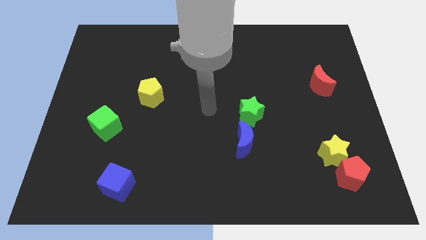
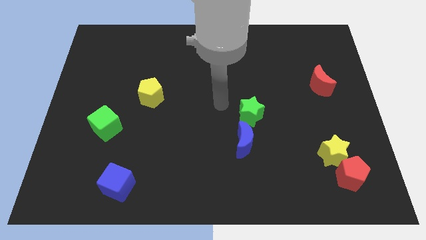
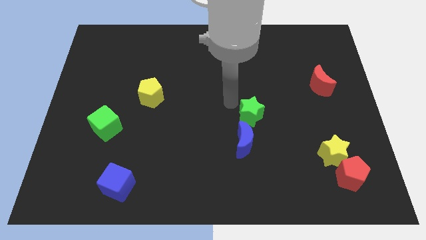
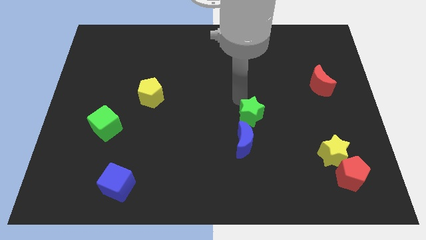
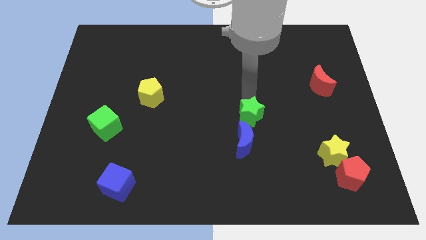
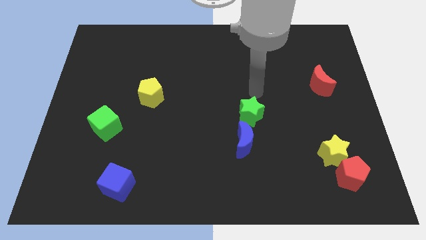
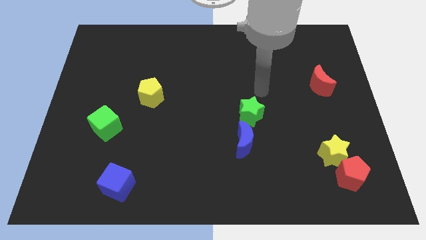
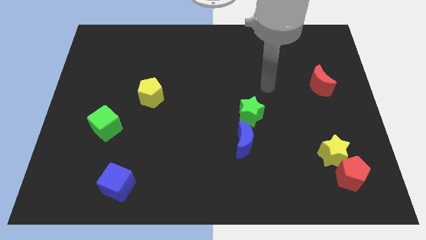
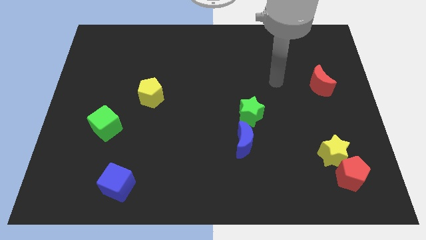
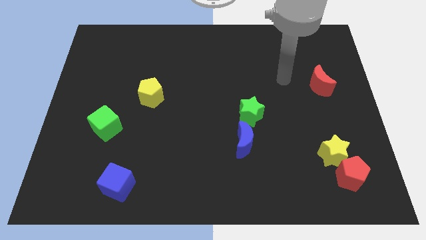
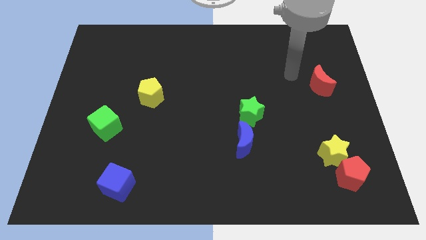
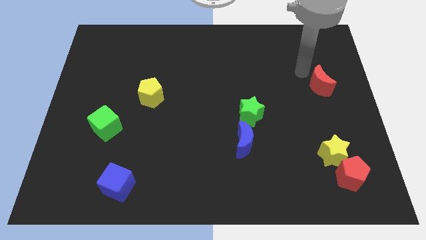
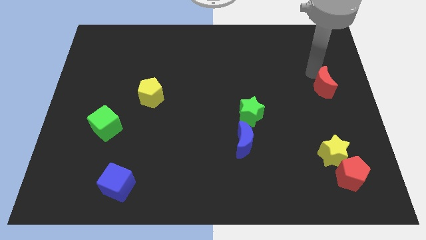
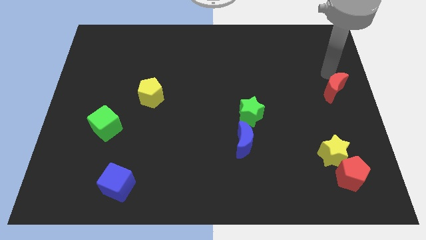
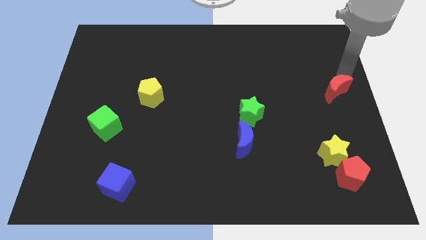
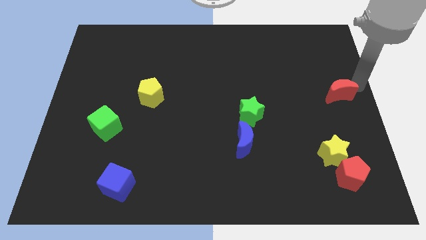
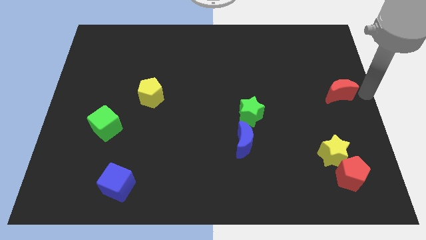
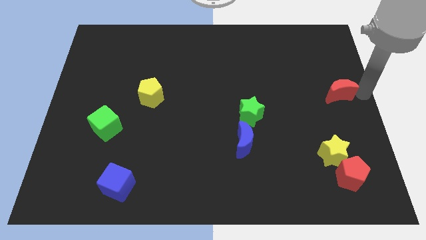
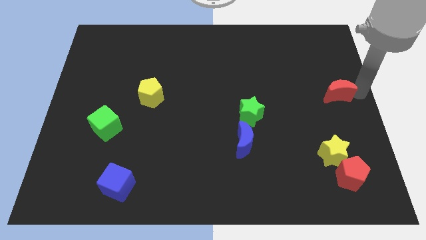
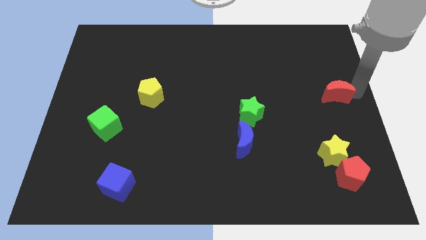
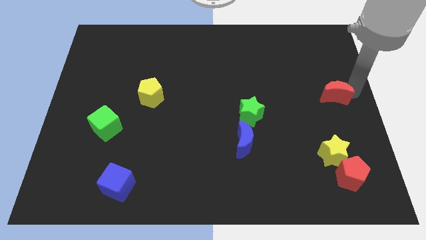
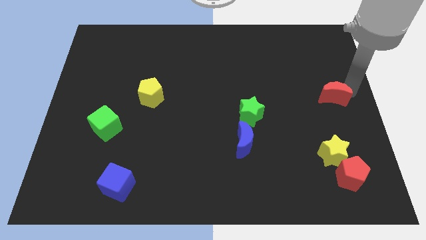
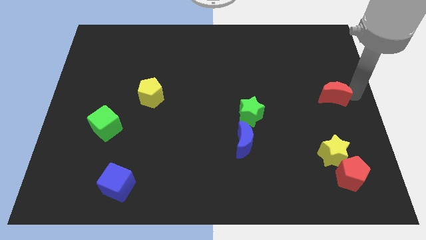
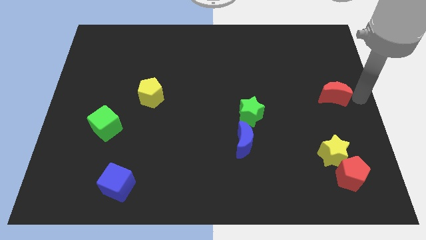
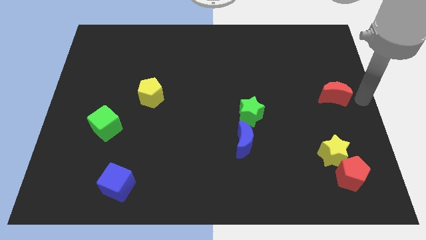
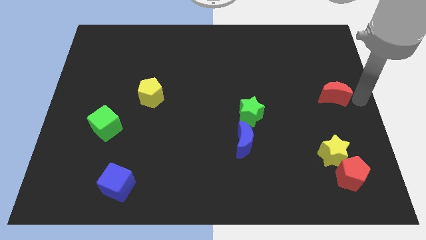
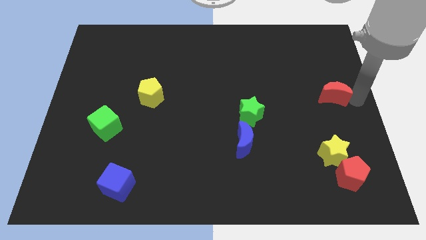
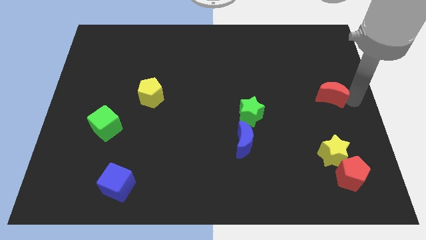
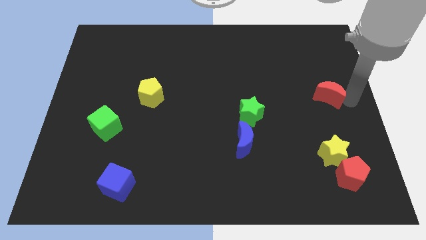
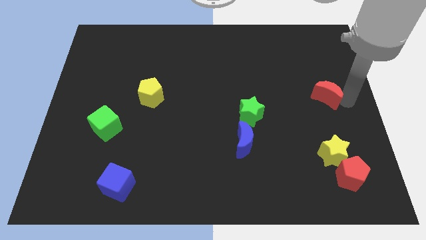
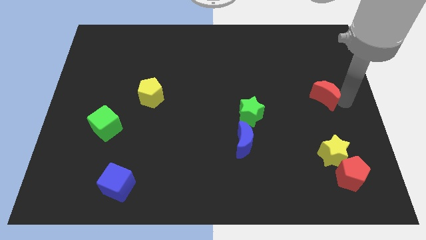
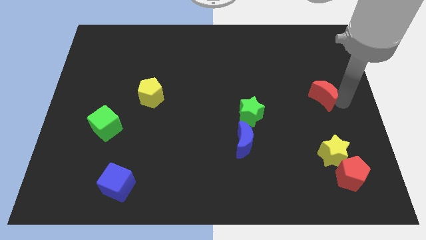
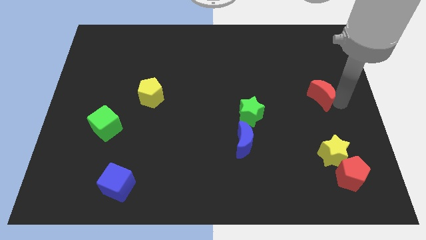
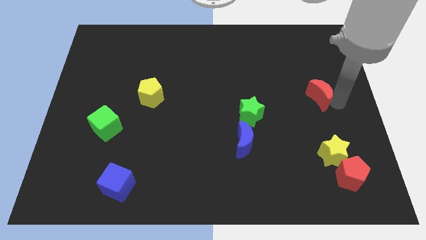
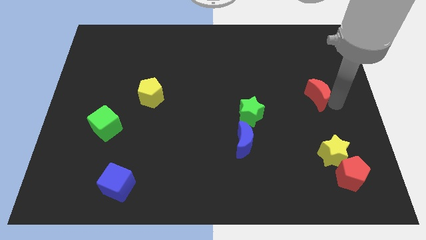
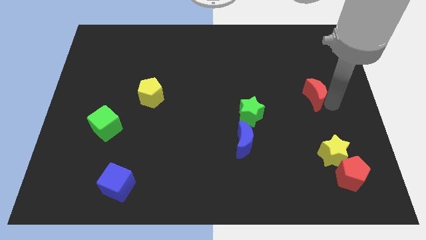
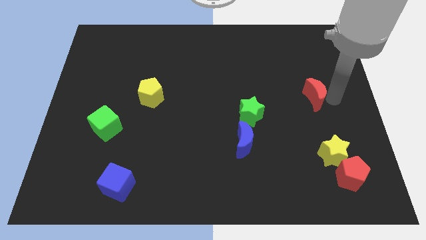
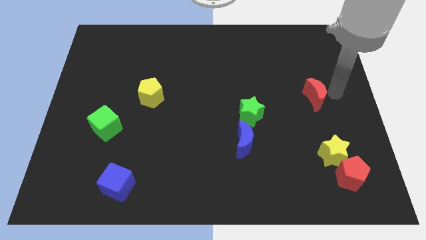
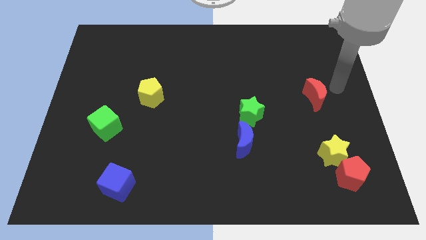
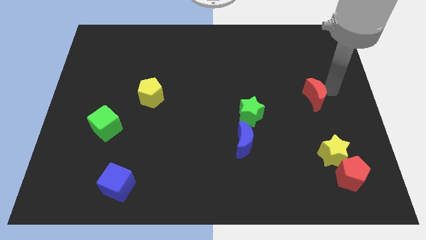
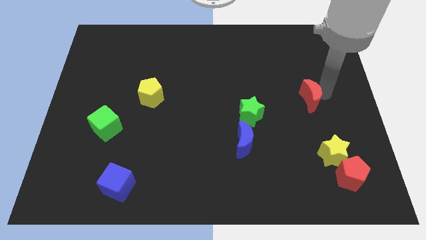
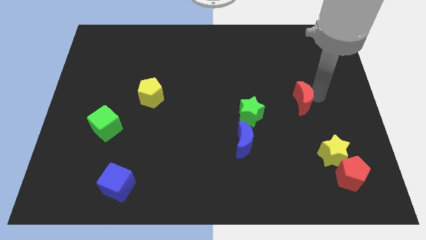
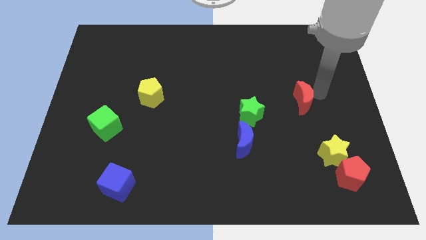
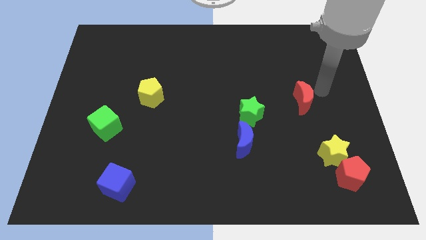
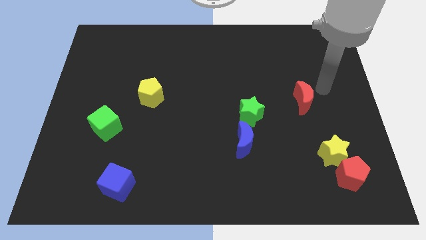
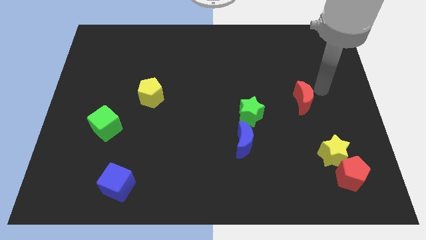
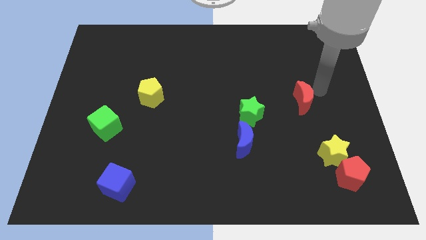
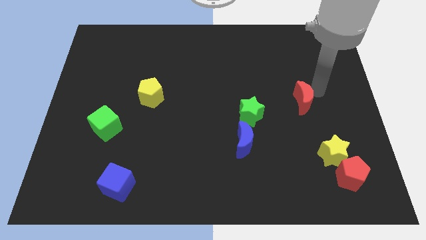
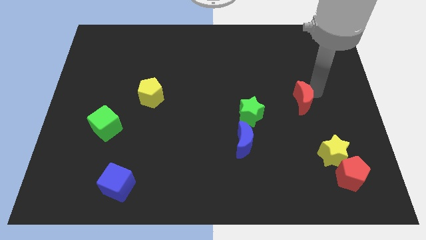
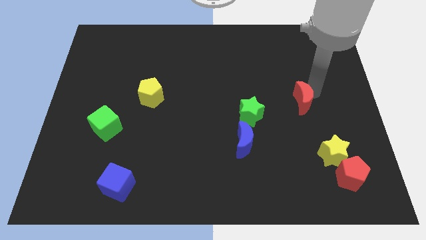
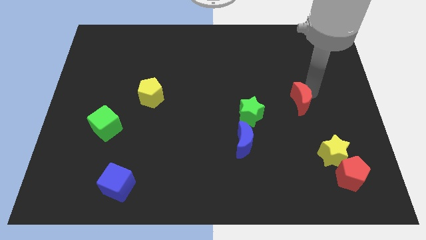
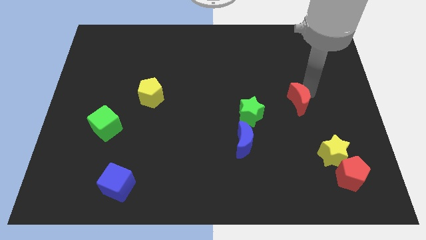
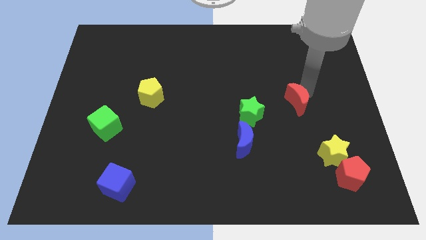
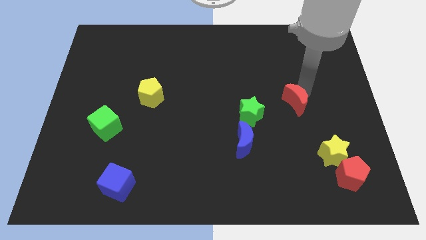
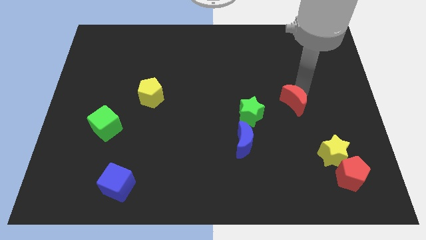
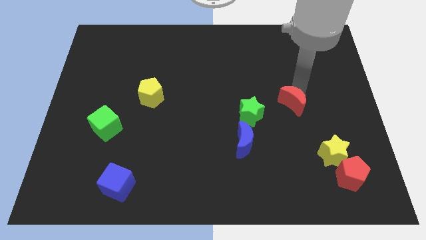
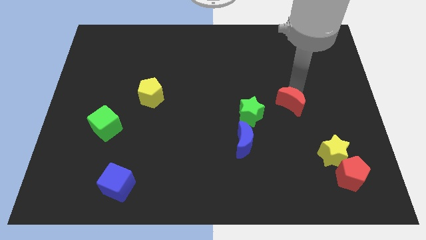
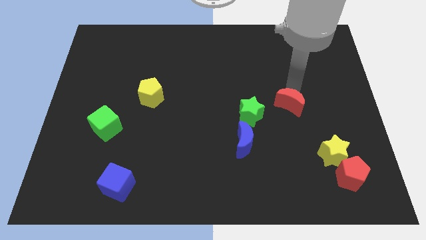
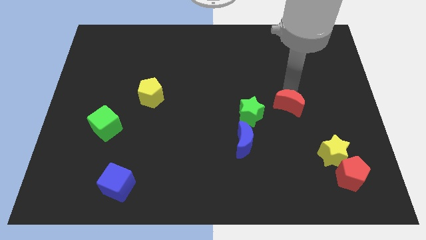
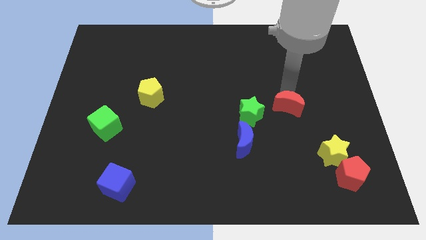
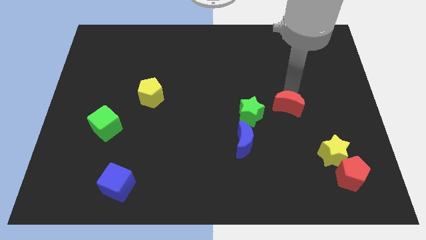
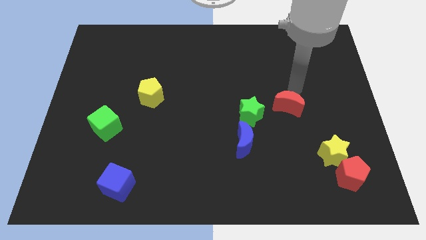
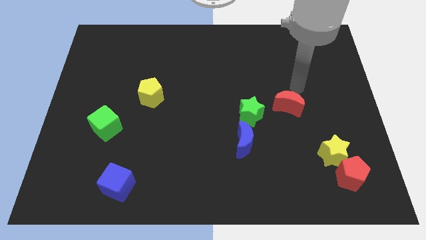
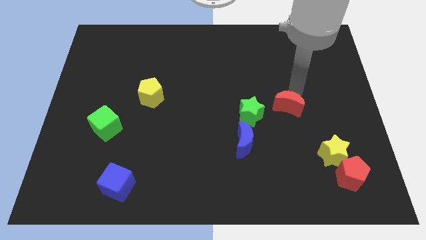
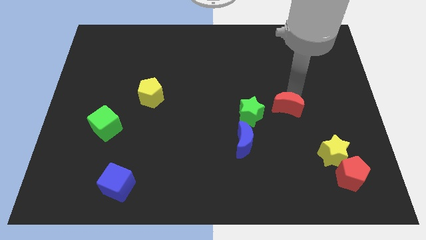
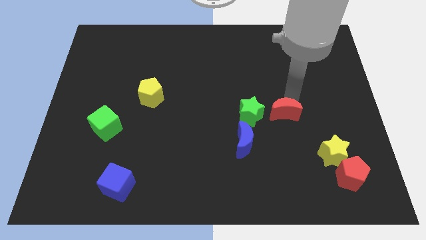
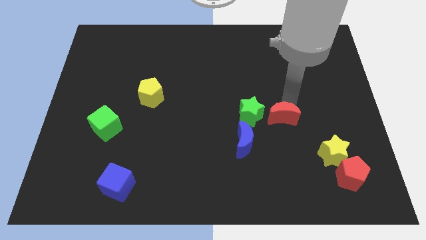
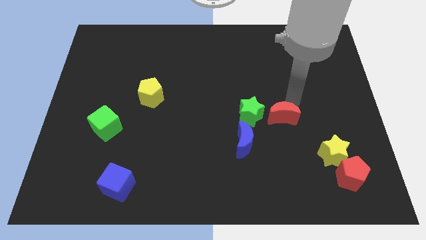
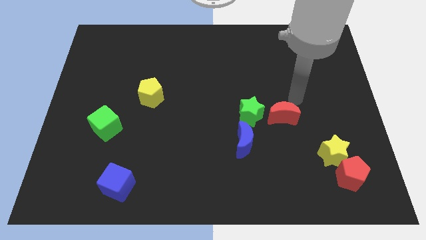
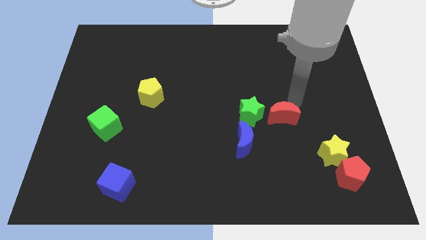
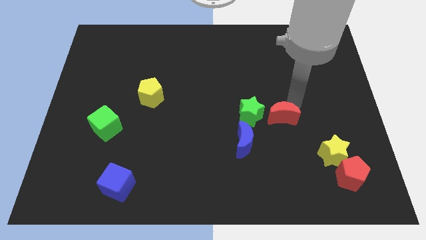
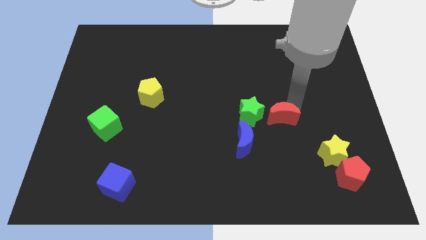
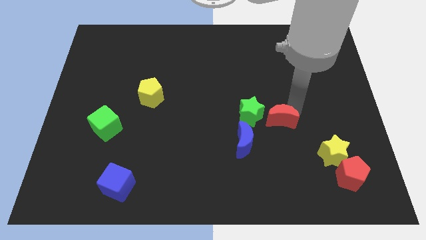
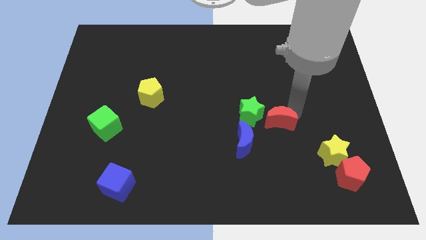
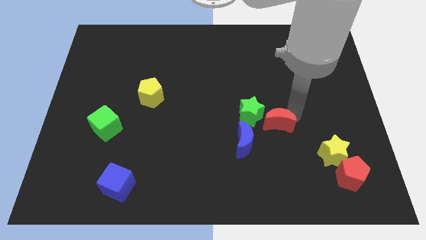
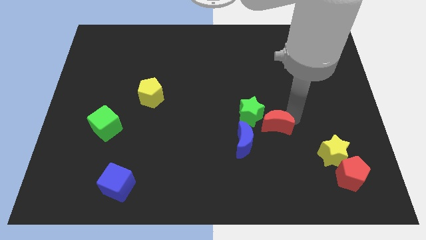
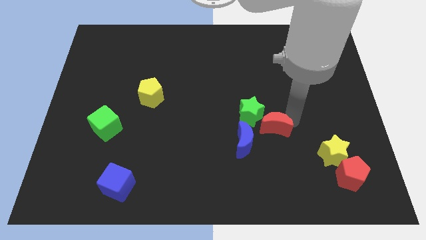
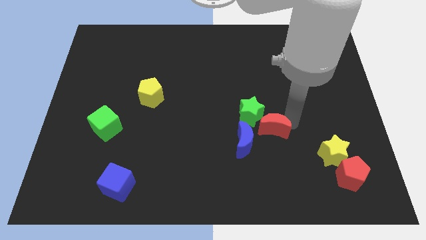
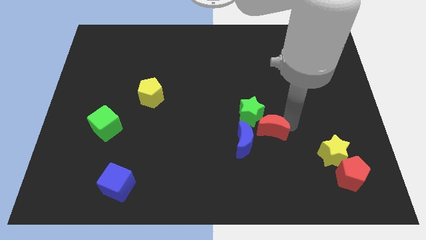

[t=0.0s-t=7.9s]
put the red moon to the bottom of the green star
